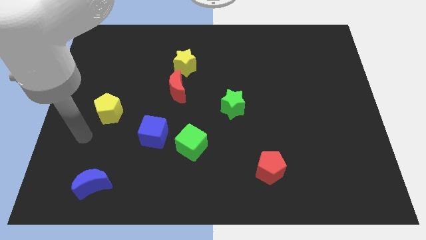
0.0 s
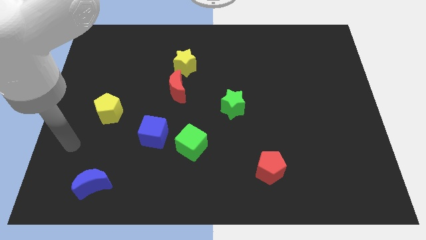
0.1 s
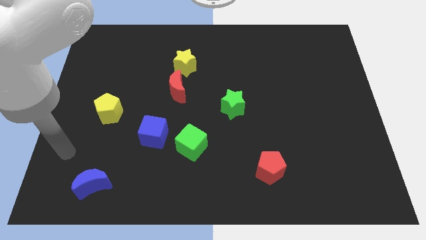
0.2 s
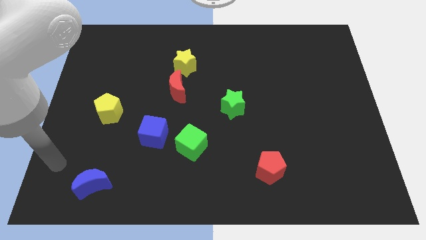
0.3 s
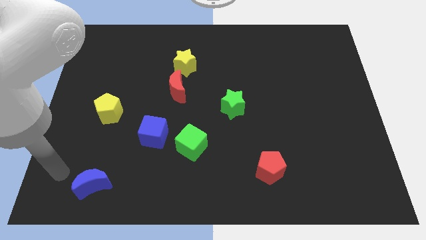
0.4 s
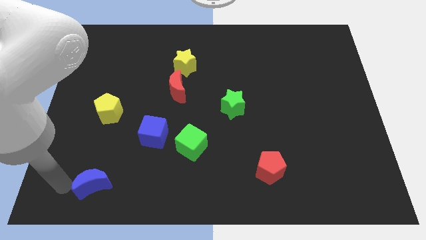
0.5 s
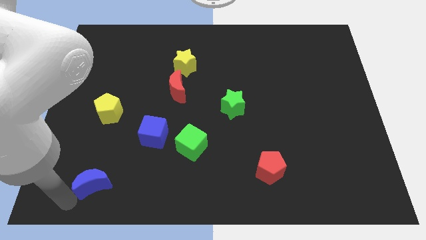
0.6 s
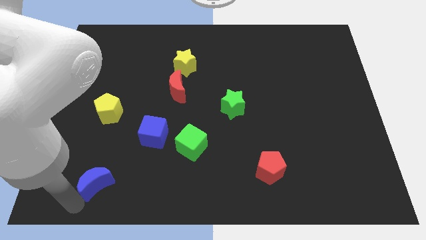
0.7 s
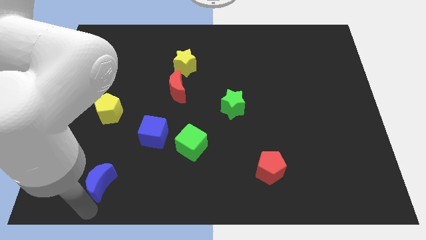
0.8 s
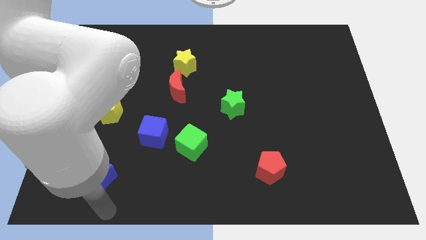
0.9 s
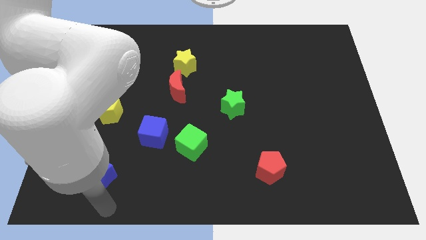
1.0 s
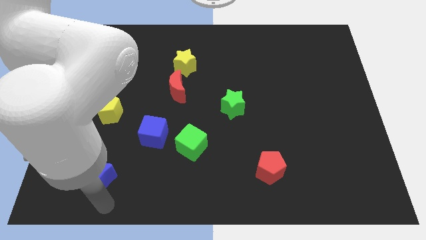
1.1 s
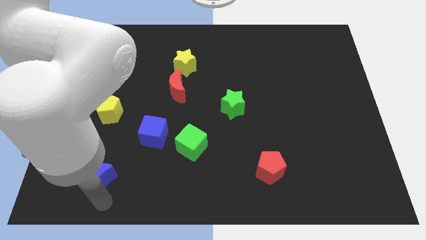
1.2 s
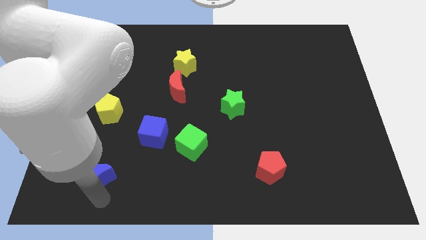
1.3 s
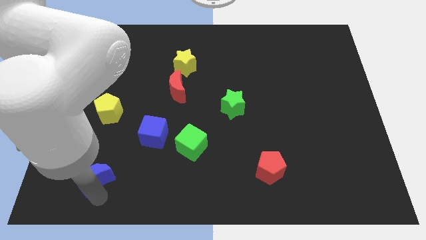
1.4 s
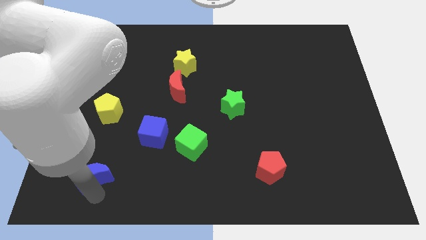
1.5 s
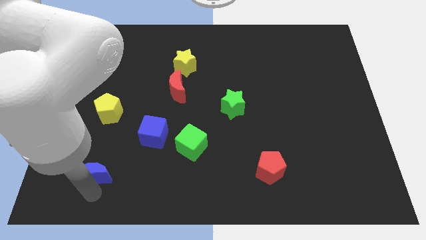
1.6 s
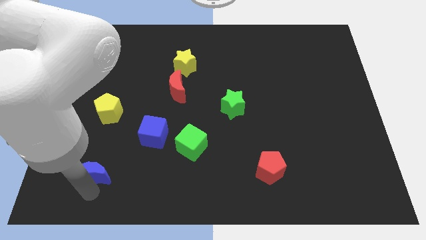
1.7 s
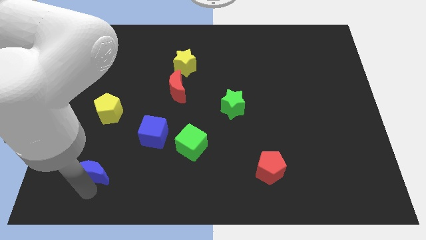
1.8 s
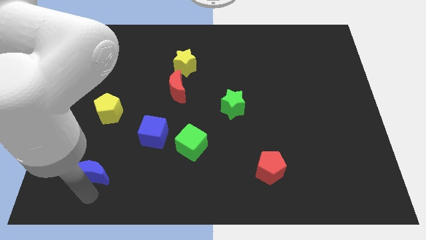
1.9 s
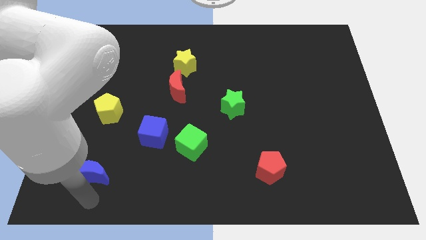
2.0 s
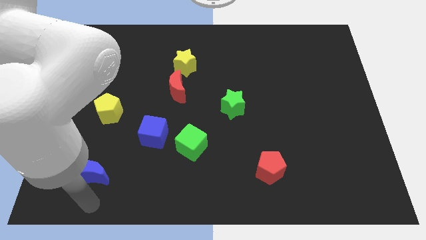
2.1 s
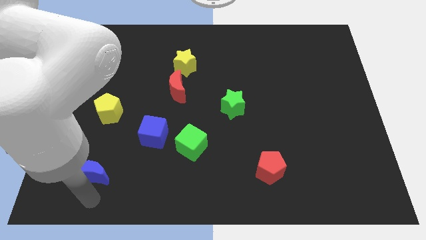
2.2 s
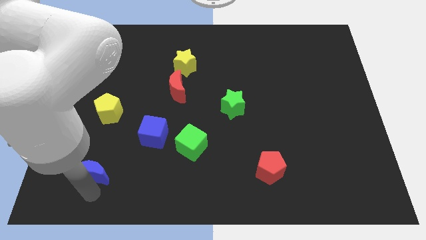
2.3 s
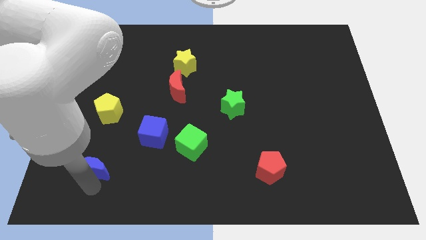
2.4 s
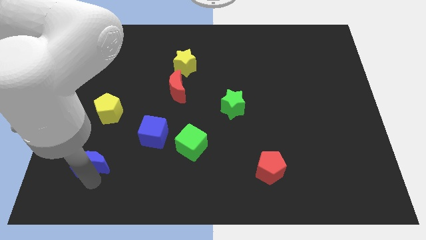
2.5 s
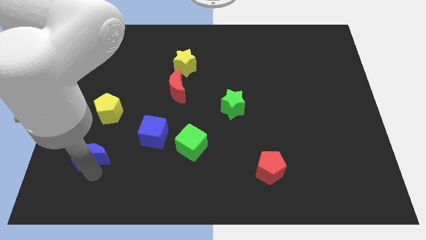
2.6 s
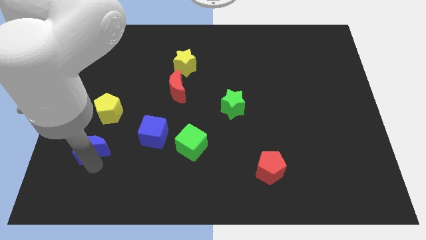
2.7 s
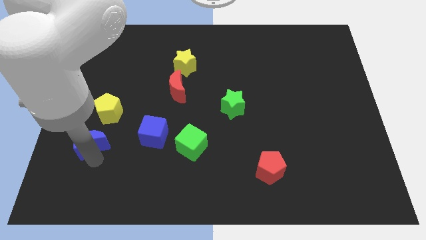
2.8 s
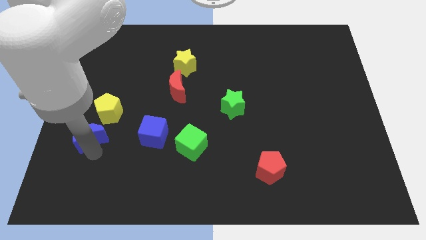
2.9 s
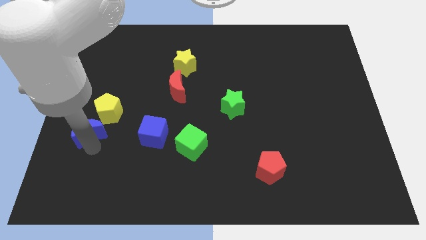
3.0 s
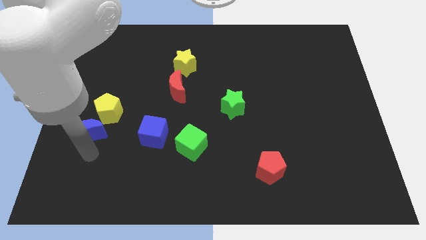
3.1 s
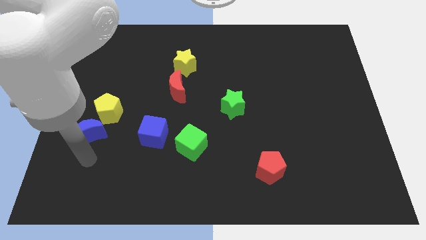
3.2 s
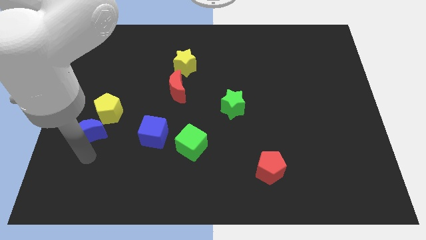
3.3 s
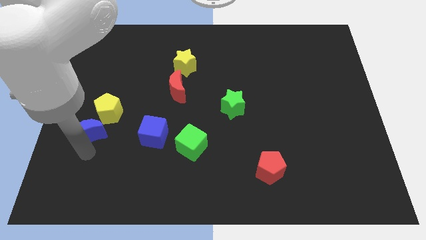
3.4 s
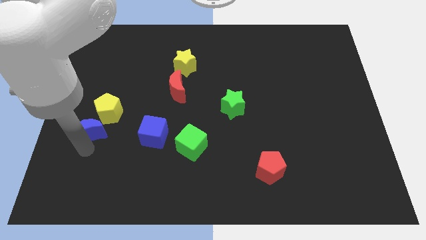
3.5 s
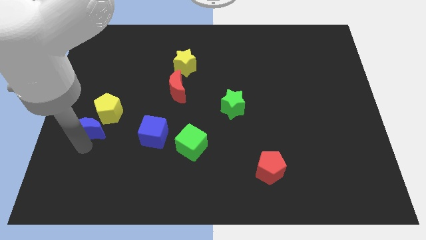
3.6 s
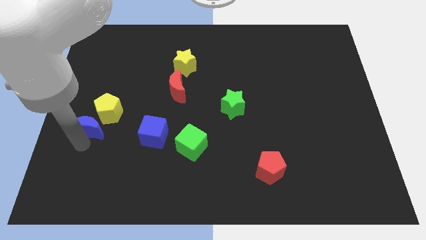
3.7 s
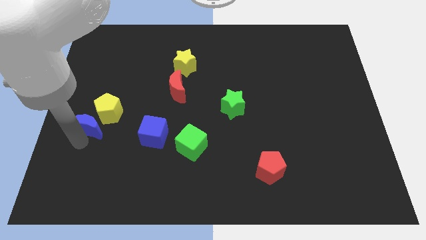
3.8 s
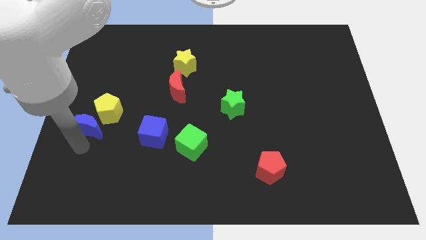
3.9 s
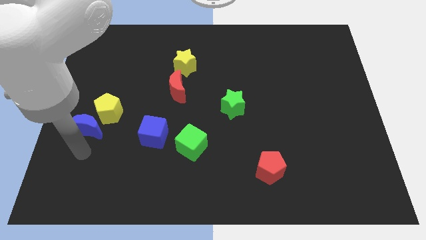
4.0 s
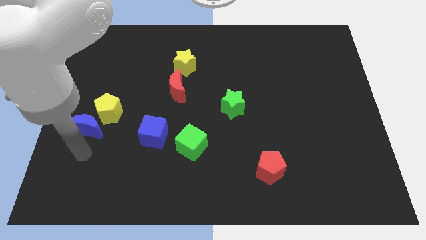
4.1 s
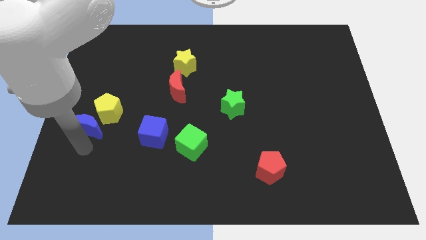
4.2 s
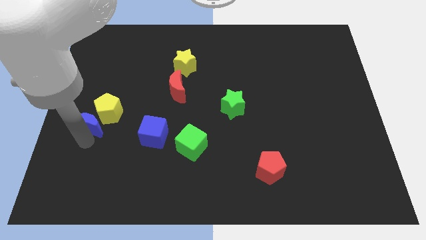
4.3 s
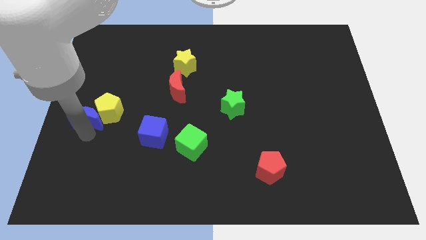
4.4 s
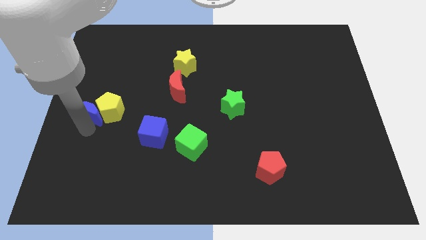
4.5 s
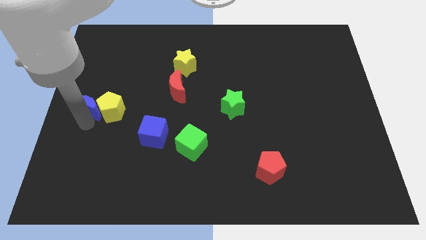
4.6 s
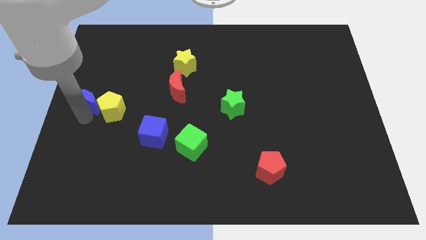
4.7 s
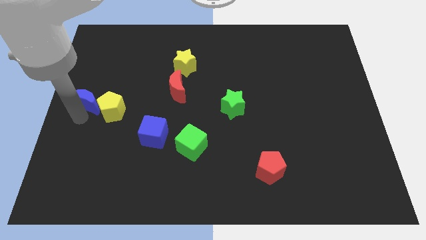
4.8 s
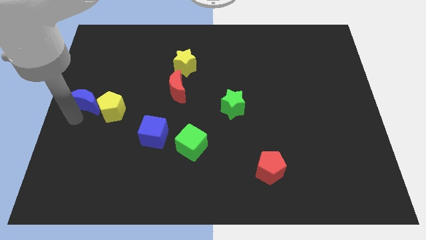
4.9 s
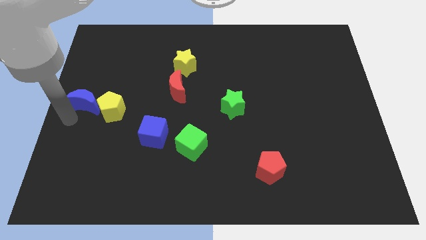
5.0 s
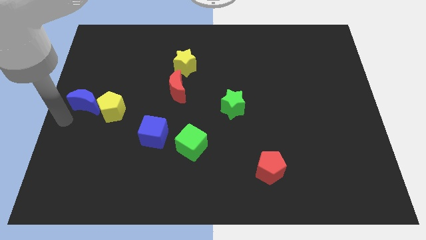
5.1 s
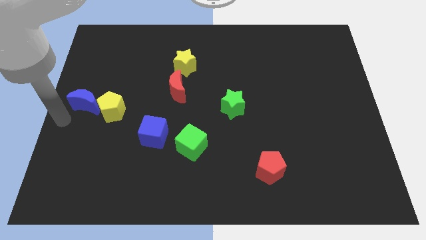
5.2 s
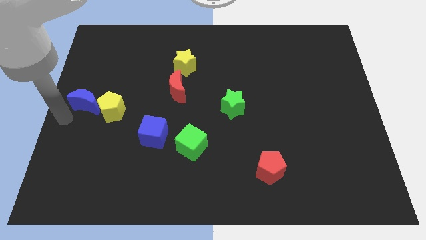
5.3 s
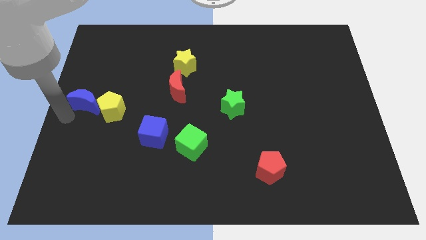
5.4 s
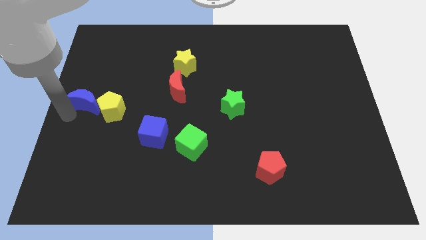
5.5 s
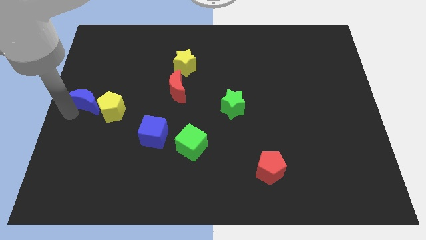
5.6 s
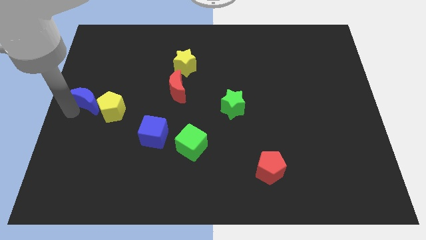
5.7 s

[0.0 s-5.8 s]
push the blue moon upwards

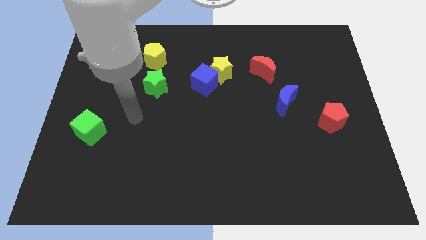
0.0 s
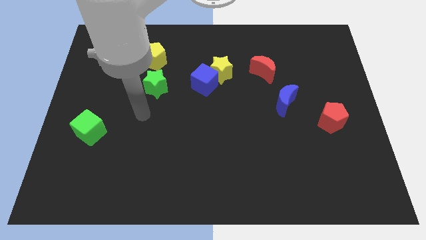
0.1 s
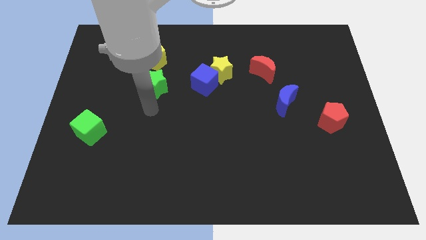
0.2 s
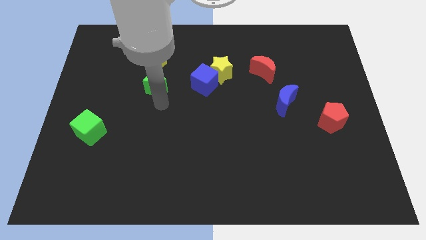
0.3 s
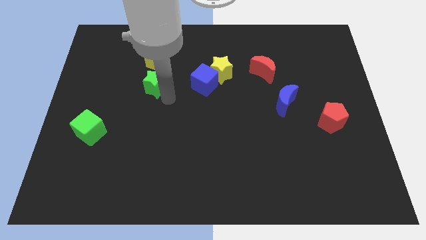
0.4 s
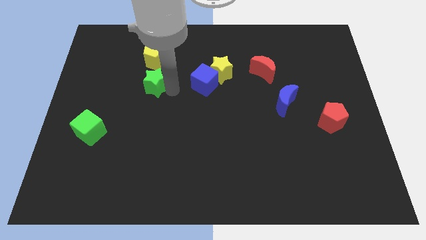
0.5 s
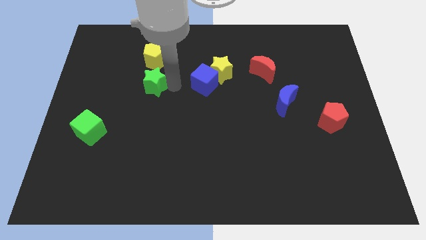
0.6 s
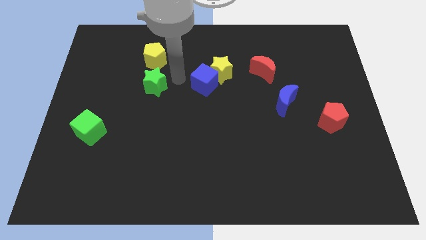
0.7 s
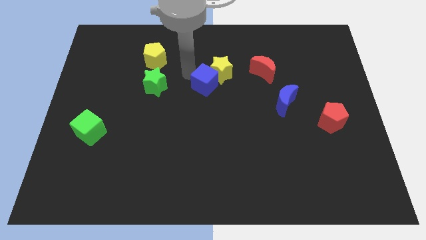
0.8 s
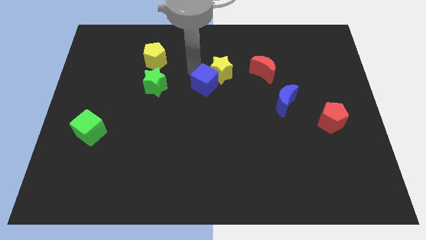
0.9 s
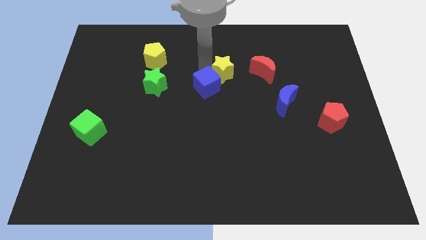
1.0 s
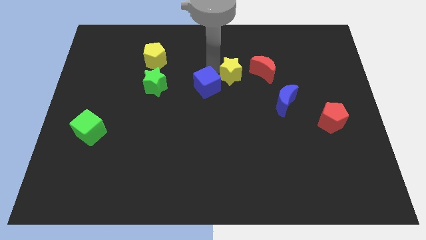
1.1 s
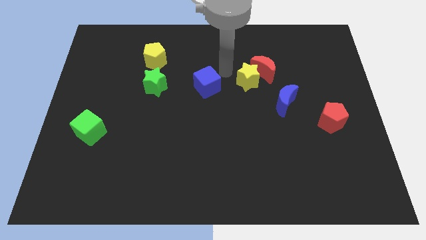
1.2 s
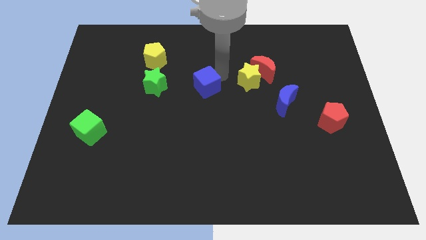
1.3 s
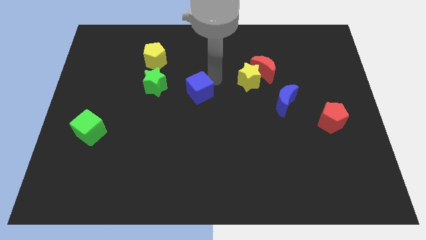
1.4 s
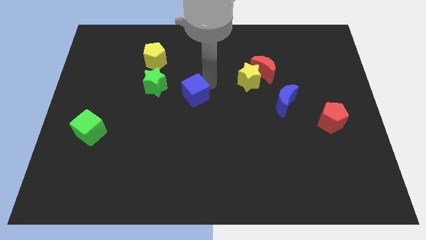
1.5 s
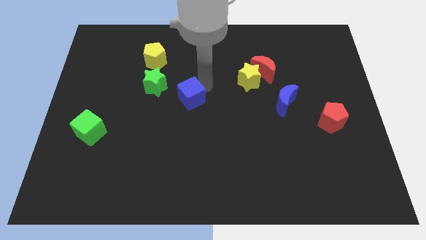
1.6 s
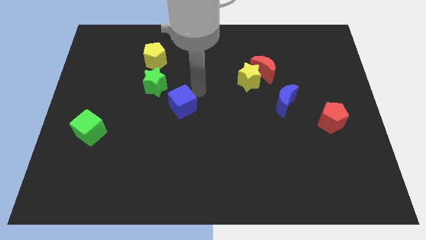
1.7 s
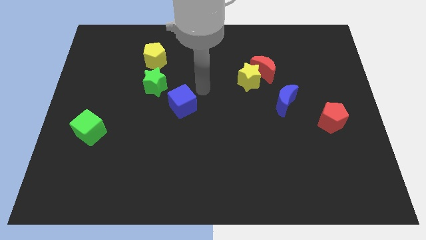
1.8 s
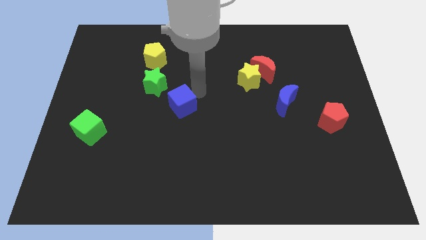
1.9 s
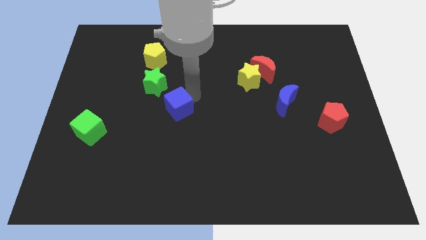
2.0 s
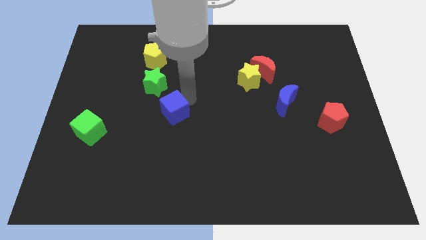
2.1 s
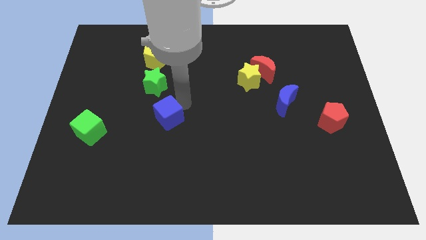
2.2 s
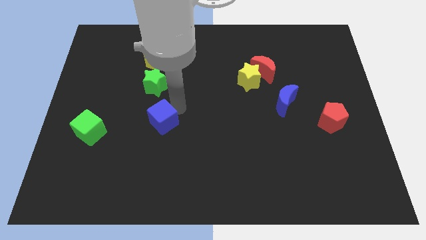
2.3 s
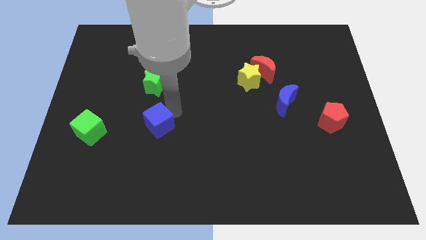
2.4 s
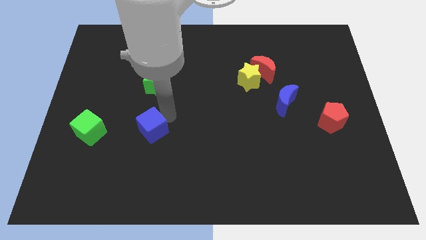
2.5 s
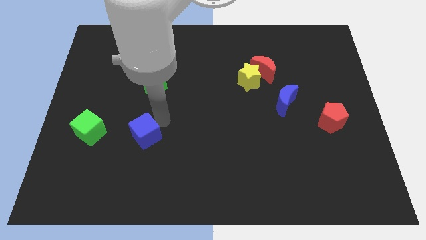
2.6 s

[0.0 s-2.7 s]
move the blue cube down and to the left diagonally
